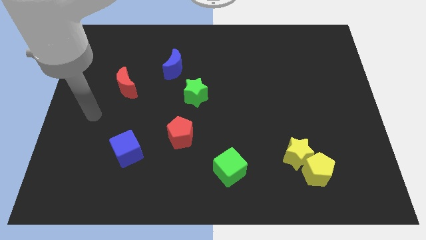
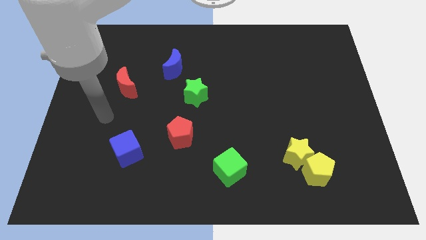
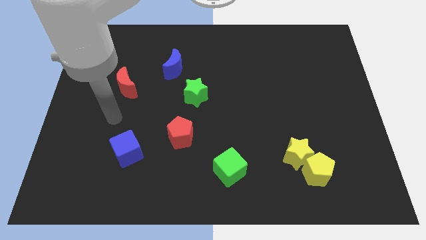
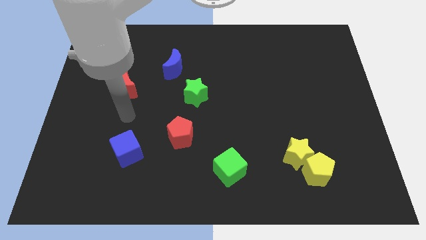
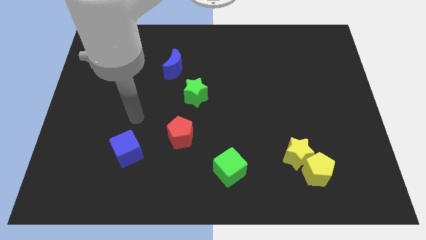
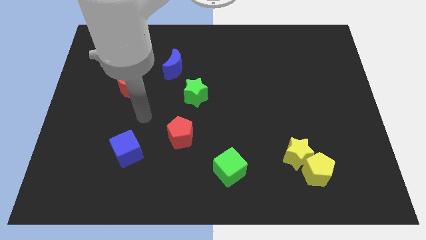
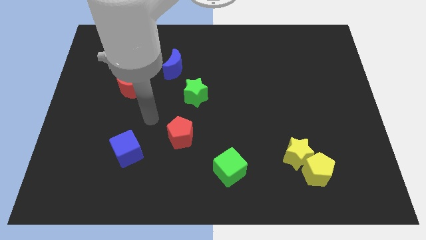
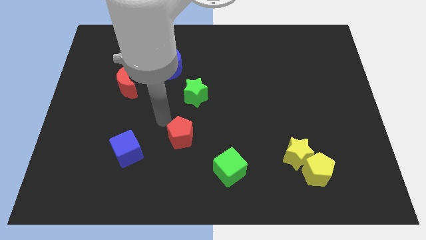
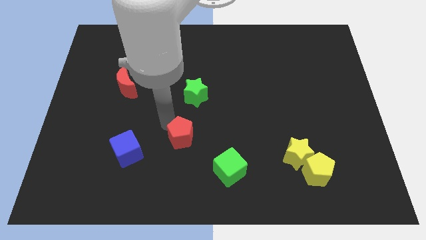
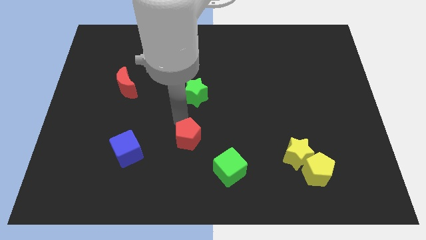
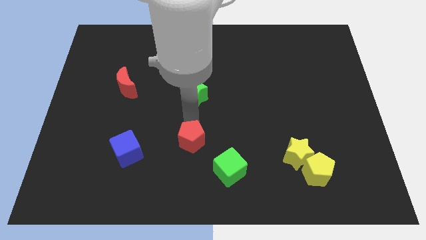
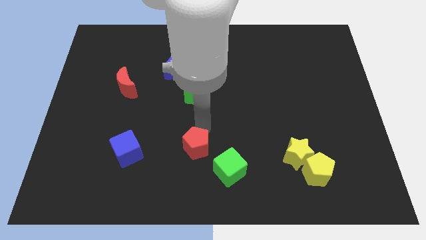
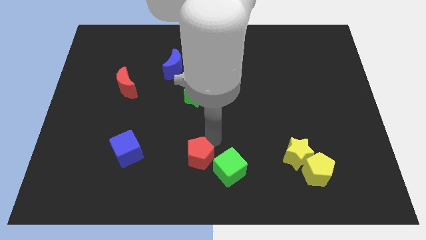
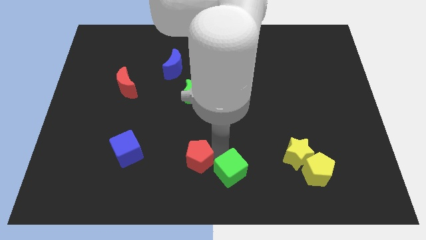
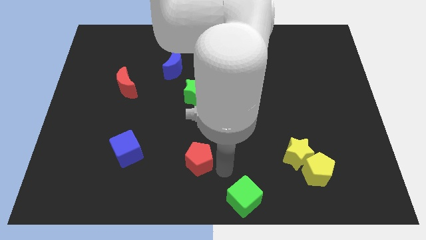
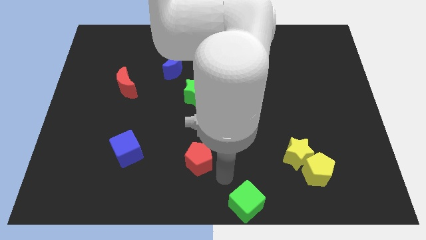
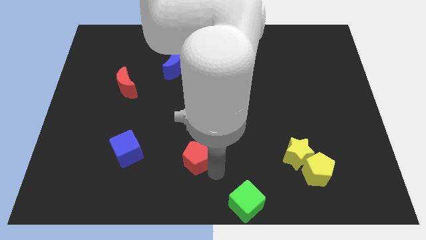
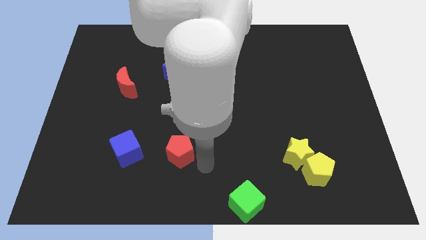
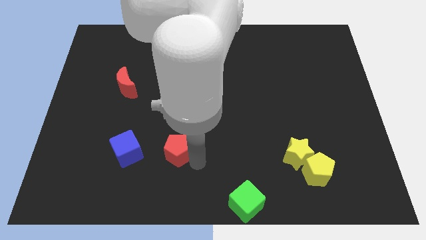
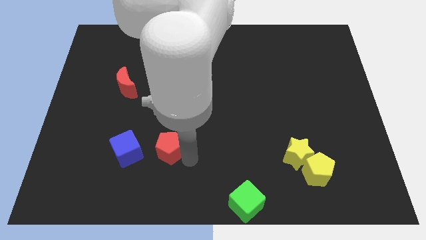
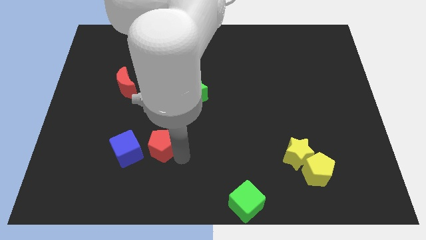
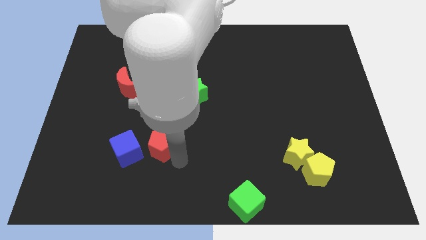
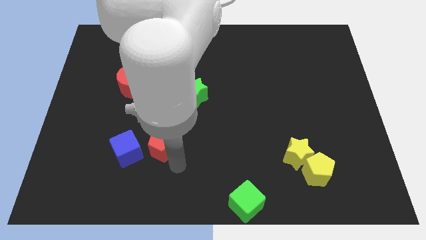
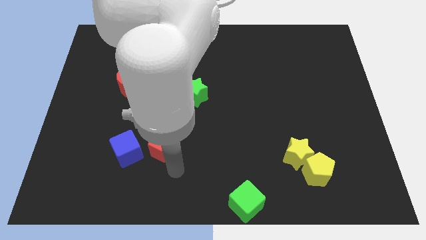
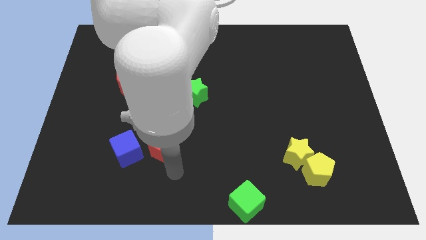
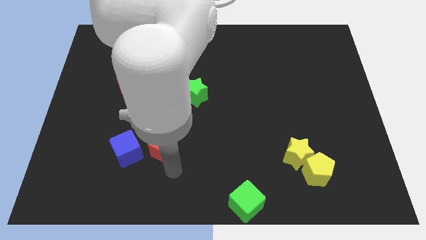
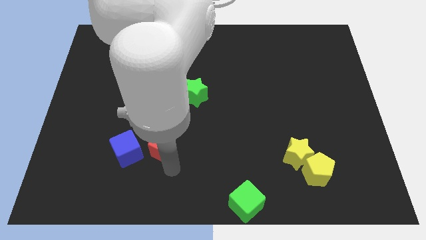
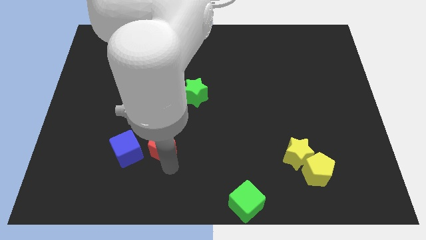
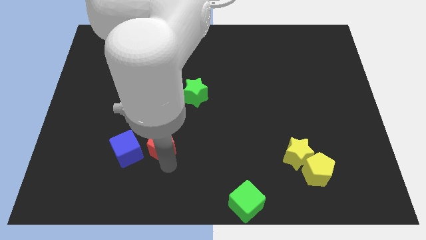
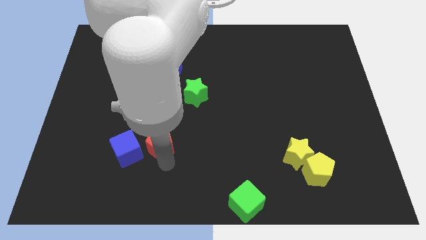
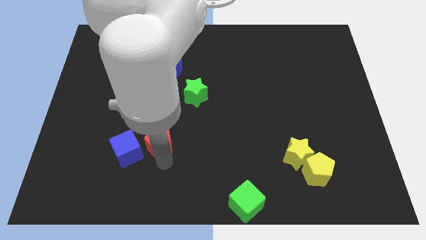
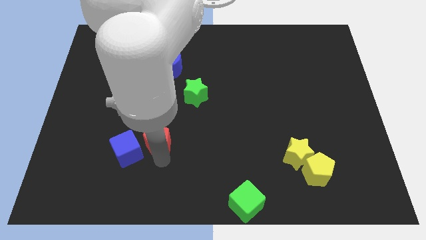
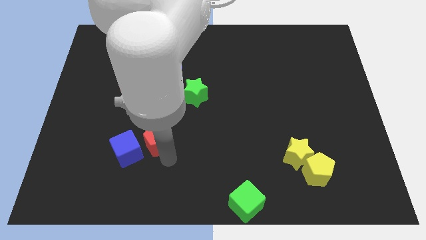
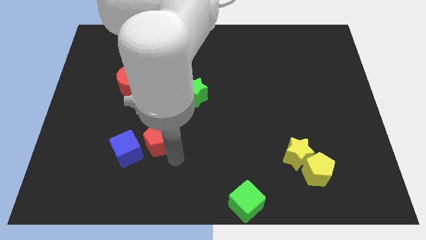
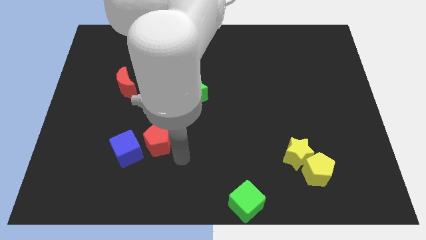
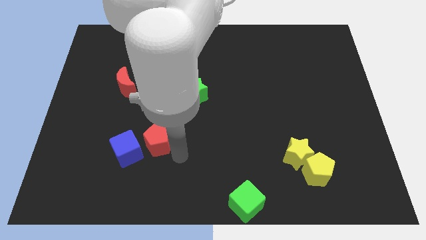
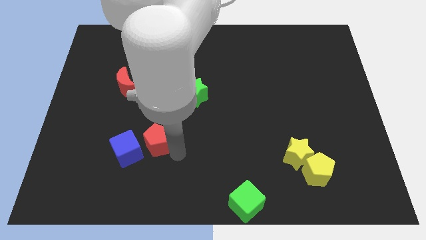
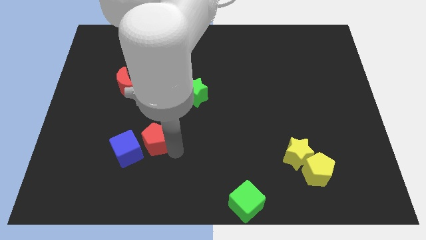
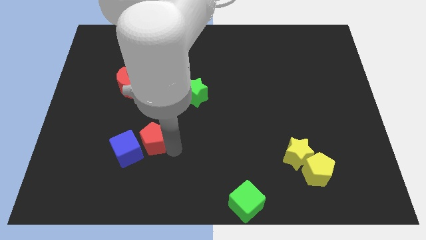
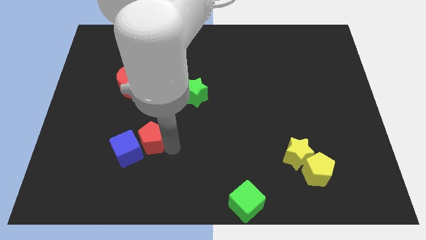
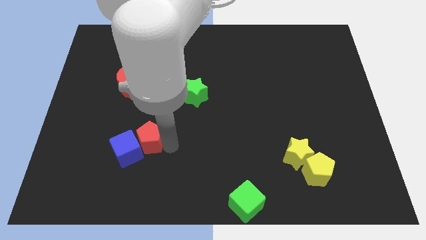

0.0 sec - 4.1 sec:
slightly push the red pentagon to the left

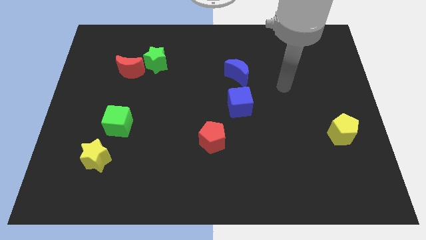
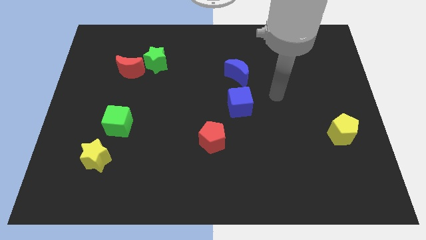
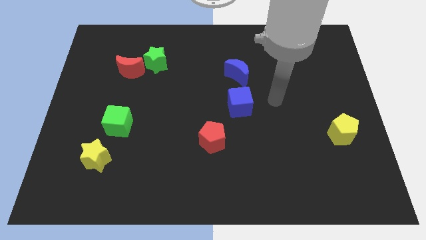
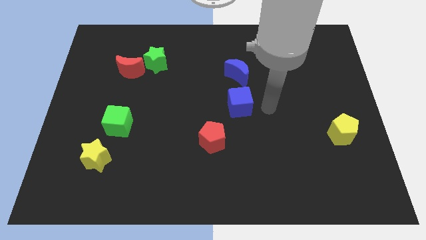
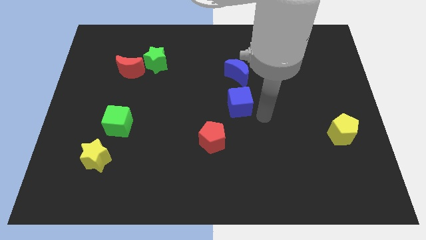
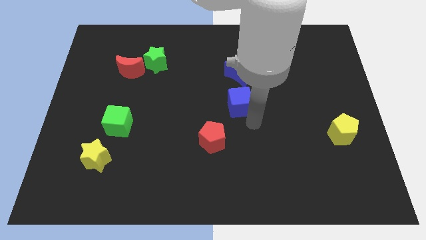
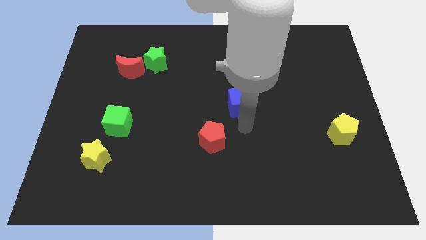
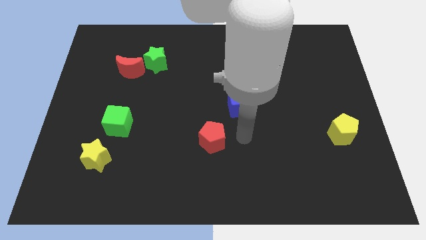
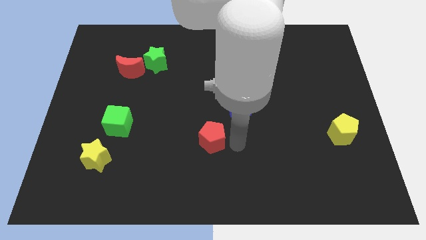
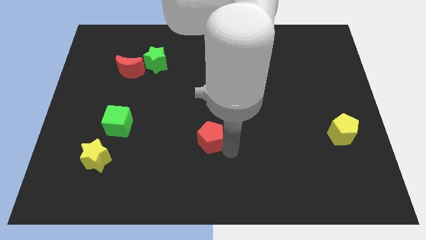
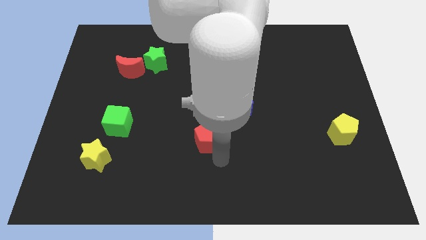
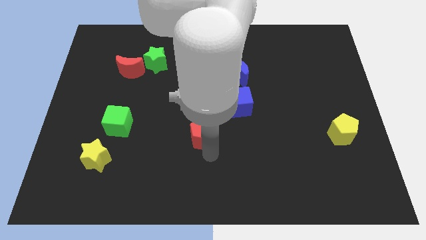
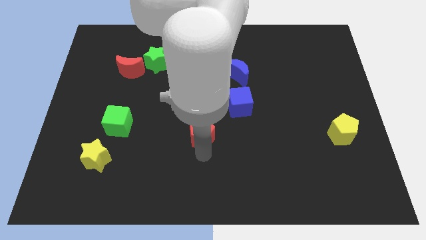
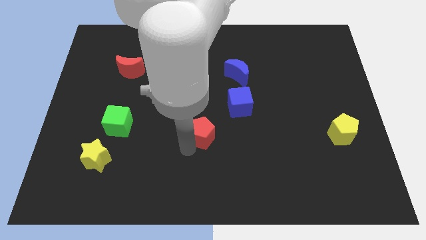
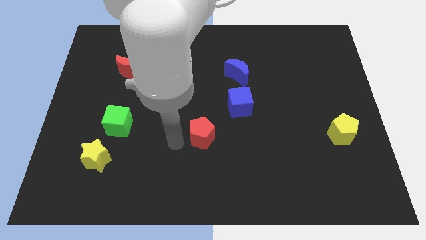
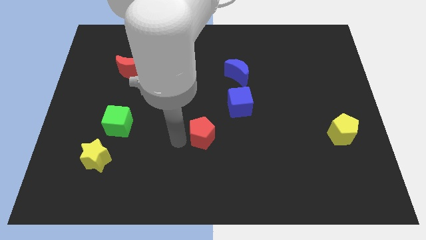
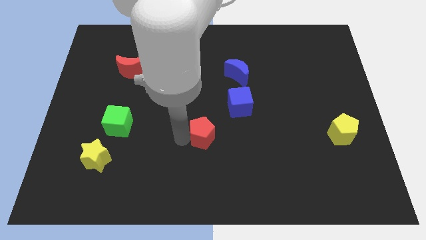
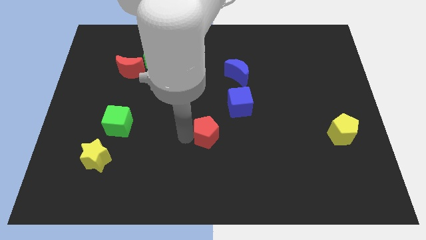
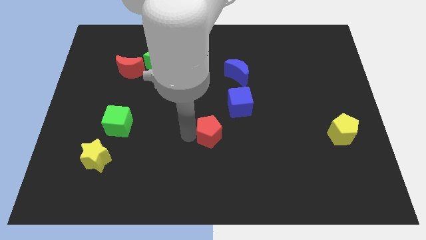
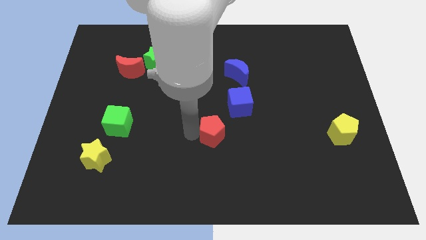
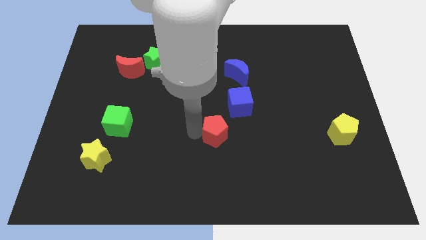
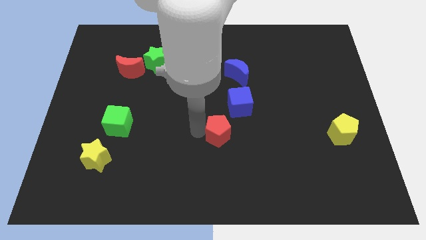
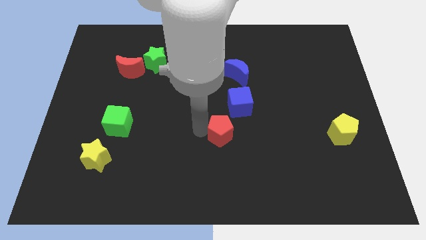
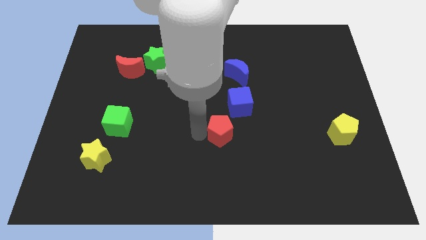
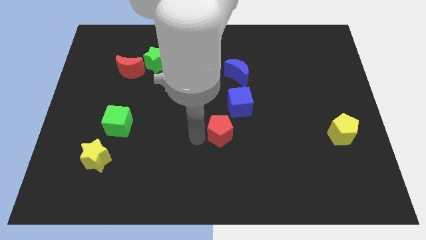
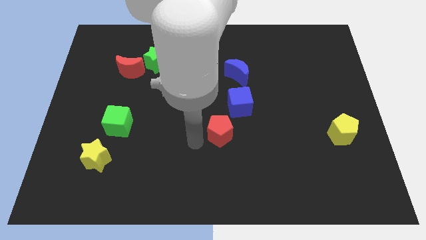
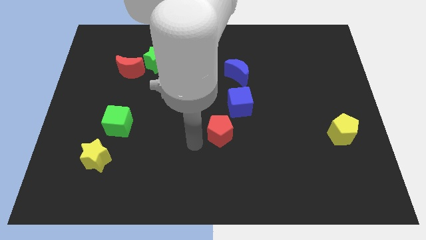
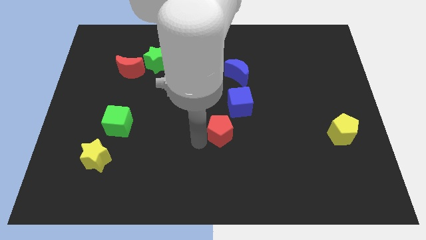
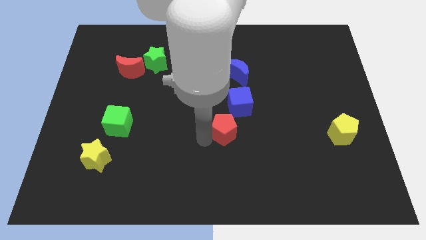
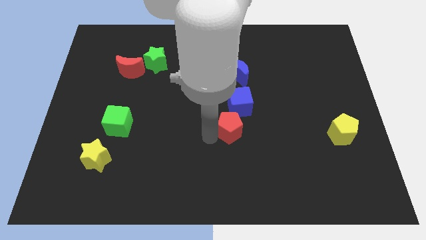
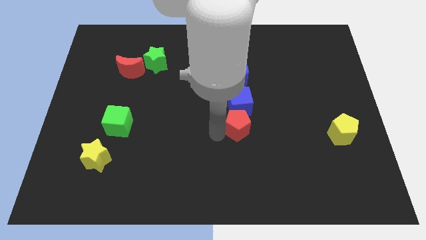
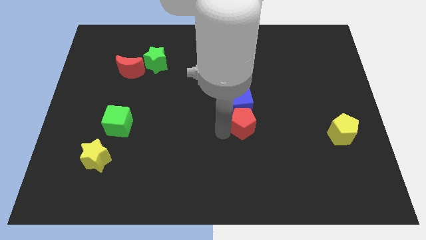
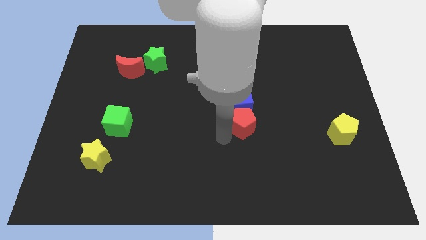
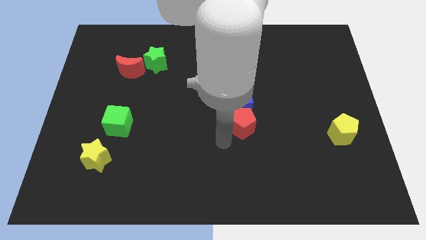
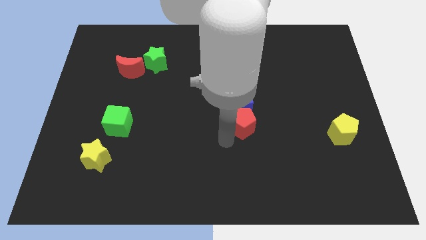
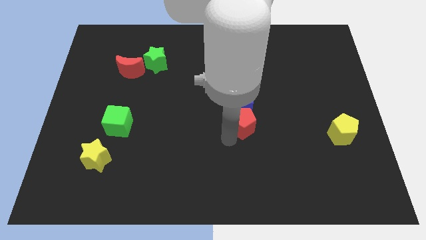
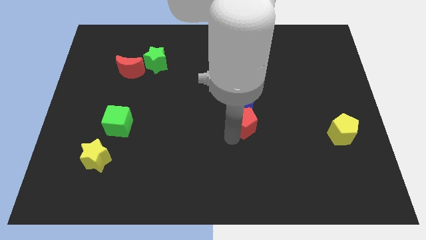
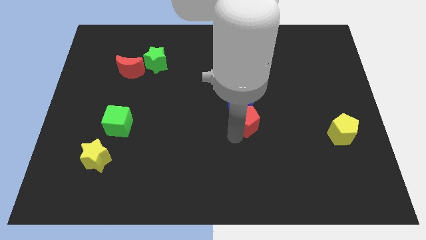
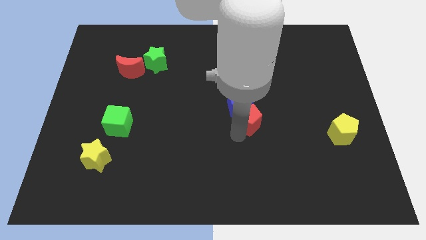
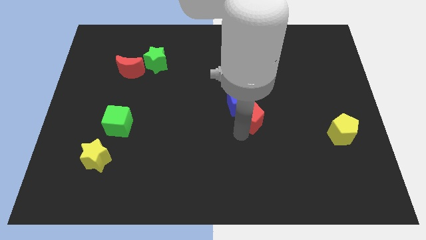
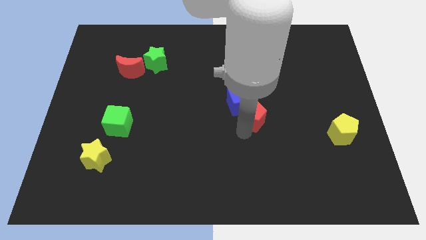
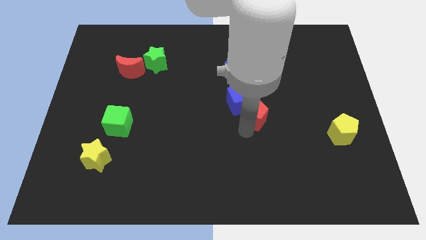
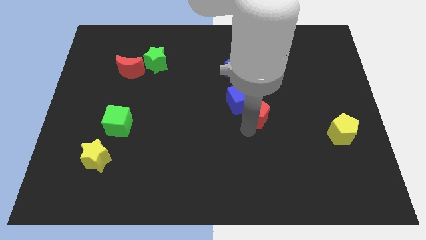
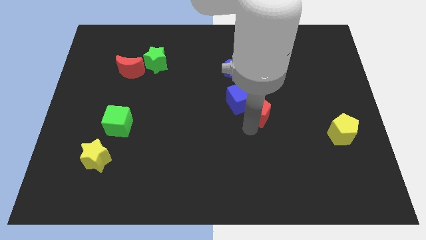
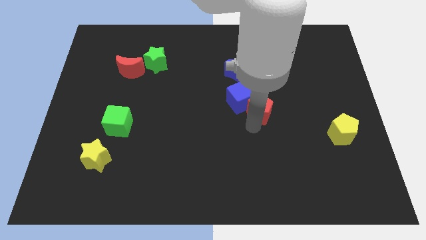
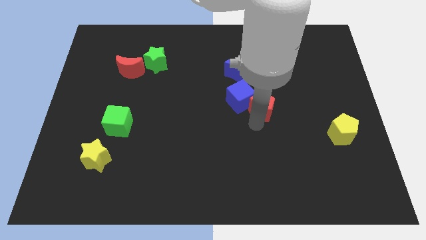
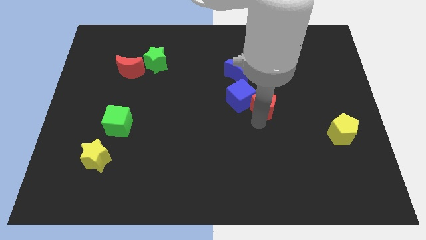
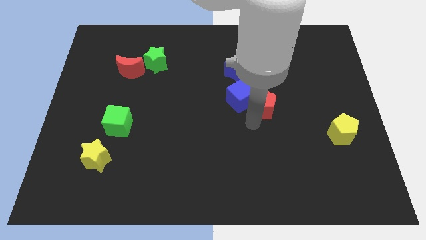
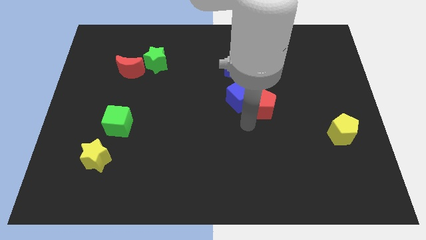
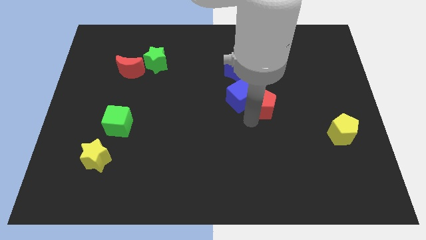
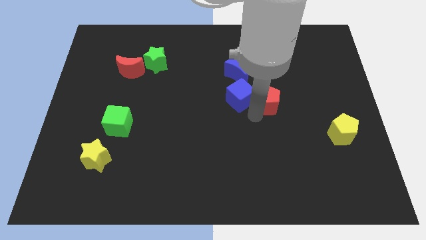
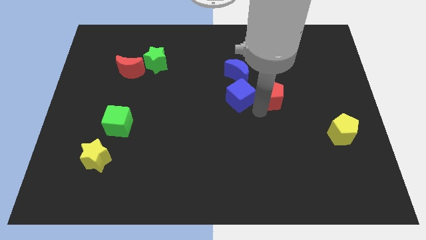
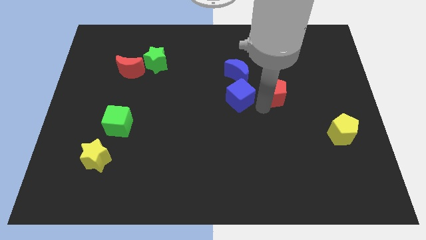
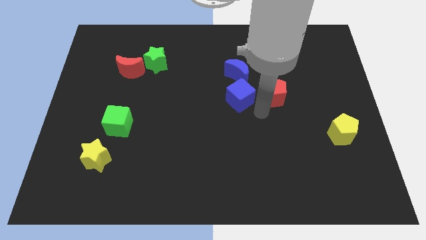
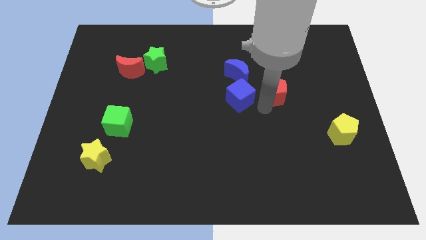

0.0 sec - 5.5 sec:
move the red pentagon up and to the right diagonally
